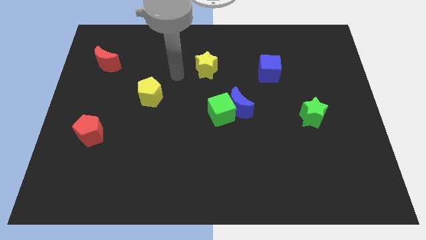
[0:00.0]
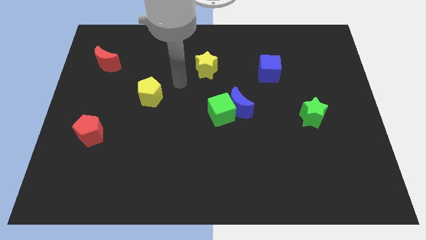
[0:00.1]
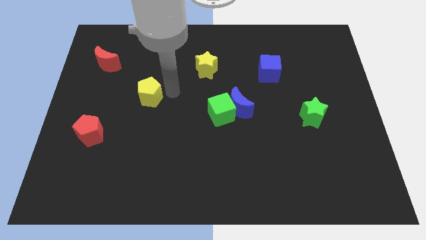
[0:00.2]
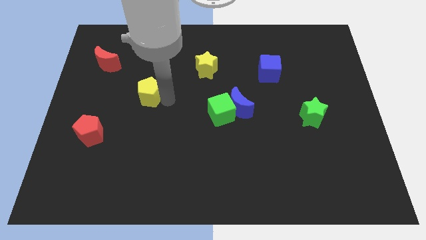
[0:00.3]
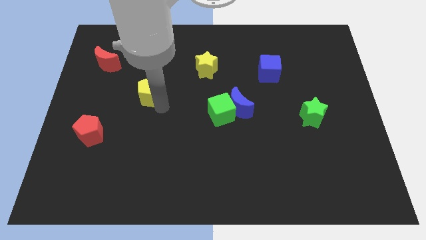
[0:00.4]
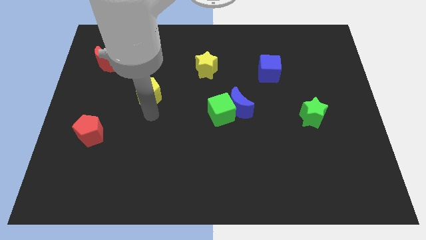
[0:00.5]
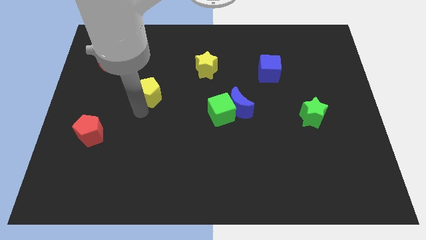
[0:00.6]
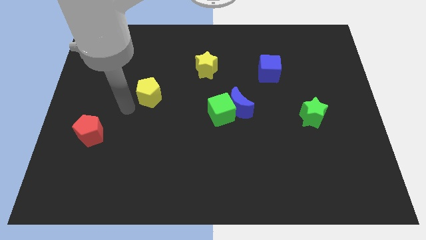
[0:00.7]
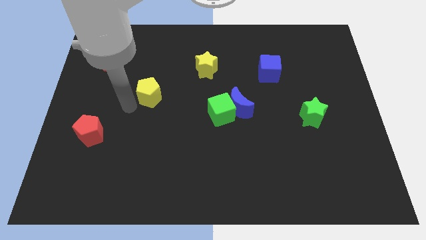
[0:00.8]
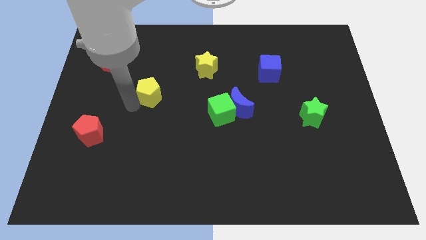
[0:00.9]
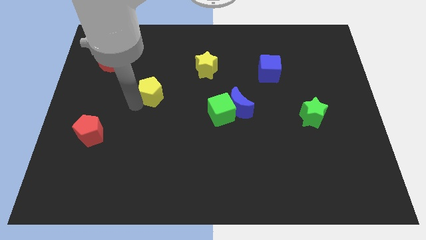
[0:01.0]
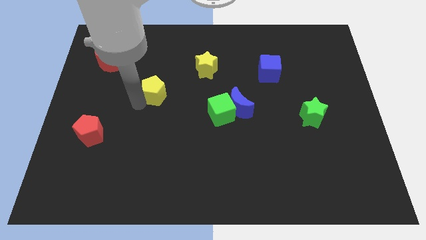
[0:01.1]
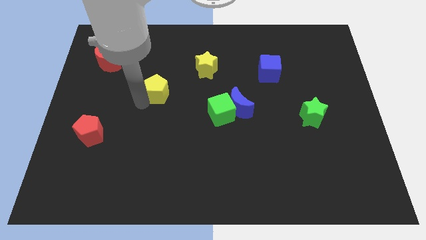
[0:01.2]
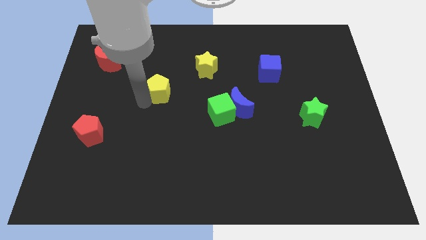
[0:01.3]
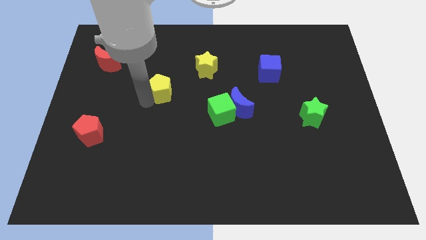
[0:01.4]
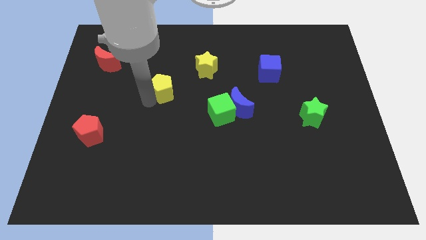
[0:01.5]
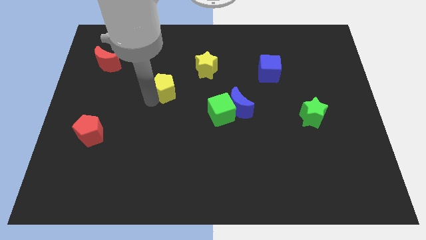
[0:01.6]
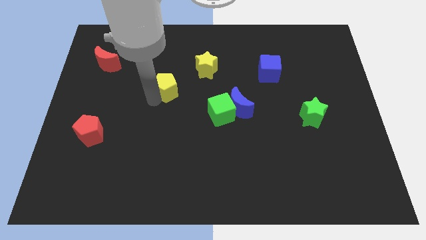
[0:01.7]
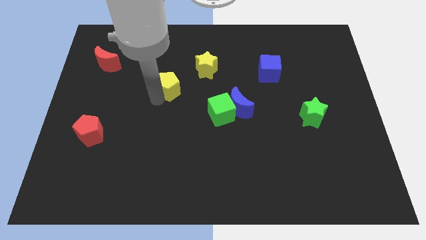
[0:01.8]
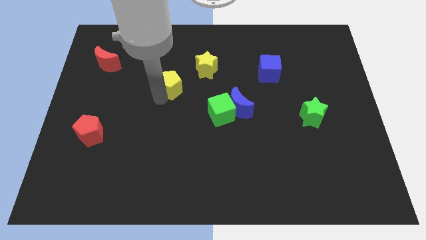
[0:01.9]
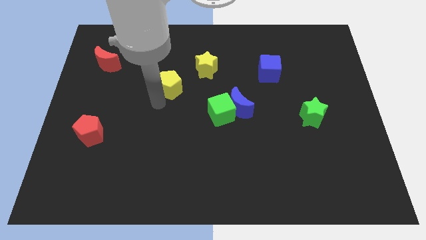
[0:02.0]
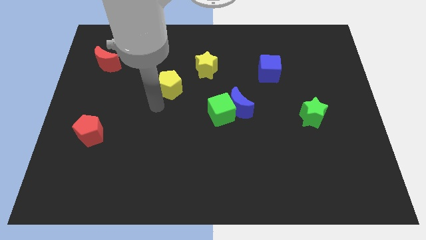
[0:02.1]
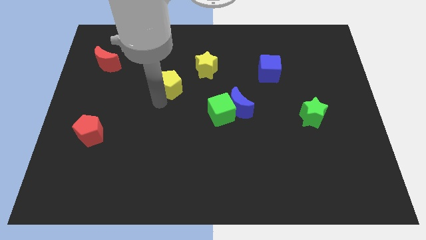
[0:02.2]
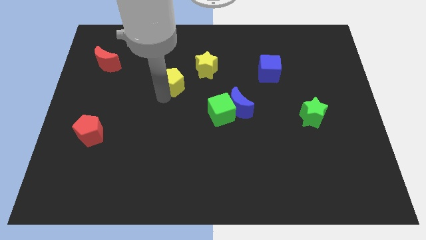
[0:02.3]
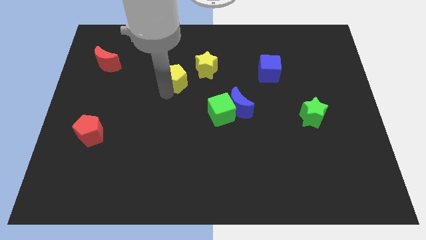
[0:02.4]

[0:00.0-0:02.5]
slide the yellow pentagon up and then right somewhat

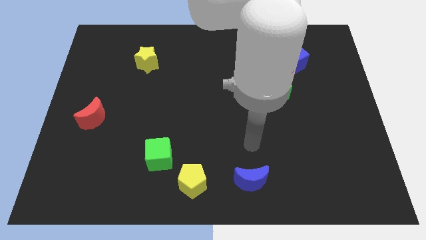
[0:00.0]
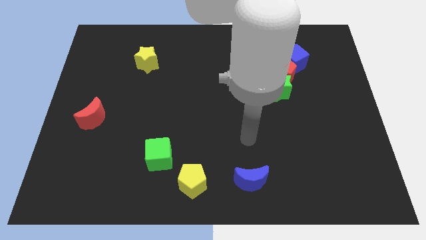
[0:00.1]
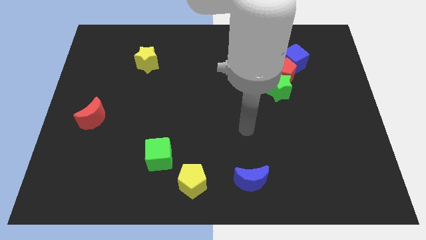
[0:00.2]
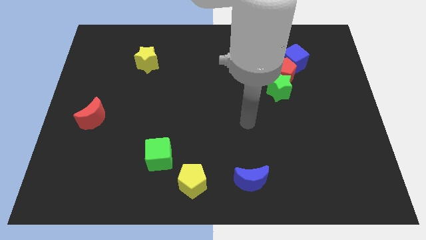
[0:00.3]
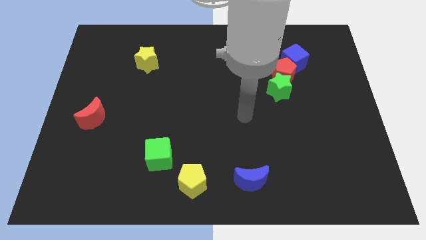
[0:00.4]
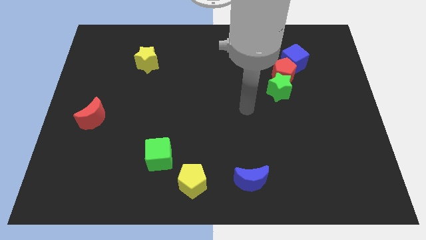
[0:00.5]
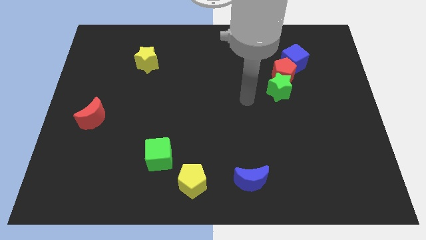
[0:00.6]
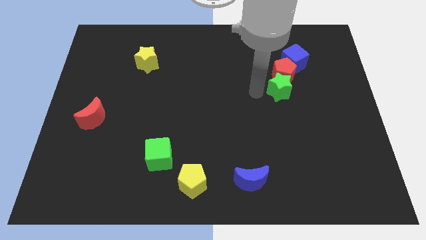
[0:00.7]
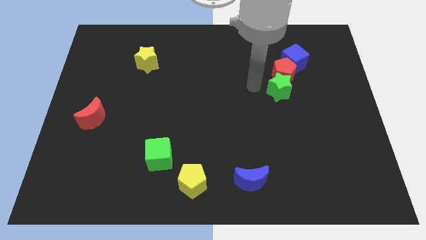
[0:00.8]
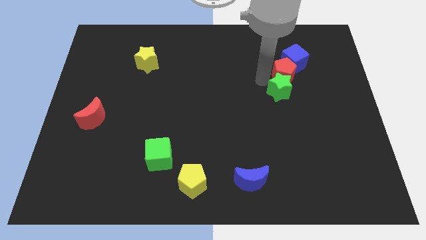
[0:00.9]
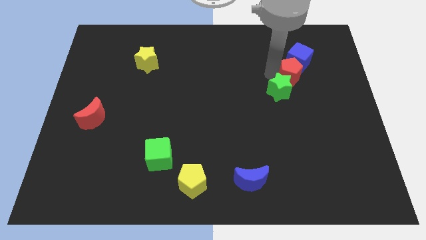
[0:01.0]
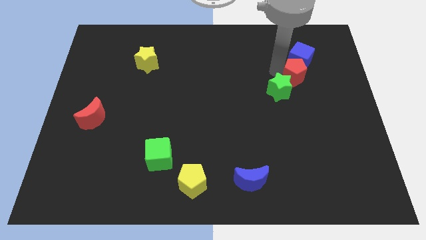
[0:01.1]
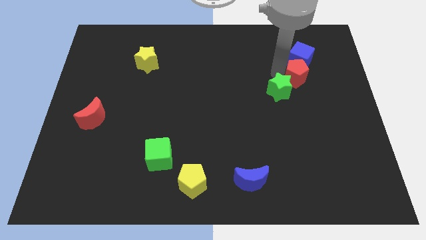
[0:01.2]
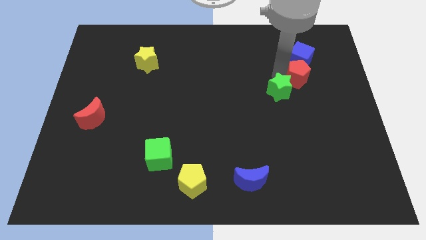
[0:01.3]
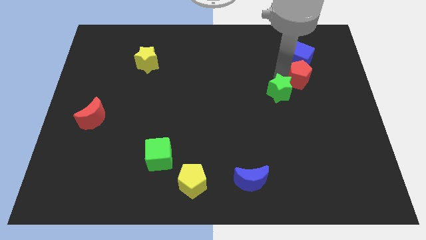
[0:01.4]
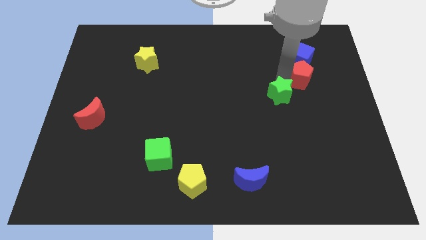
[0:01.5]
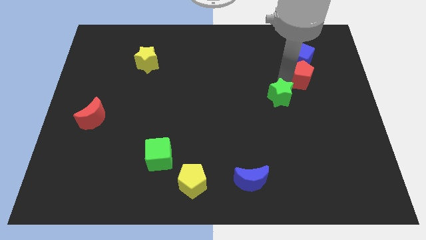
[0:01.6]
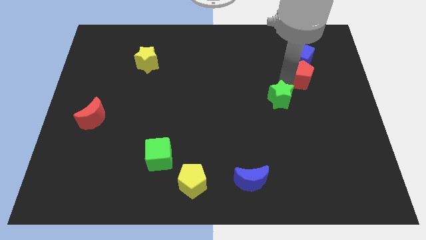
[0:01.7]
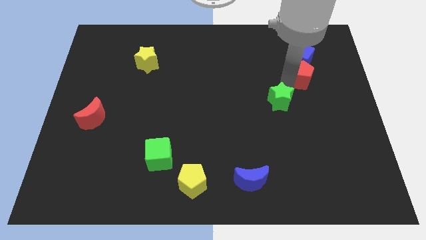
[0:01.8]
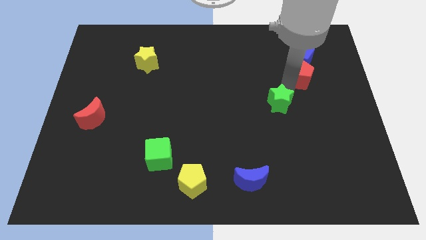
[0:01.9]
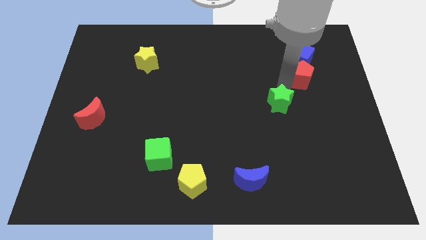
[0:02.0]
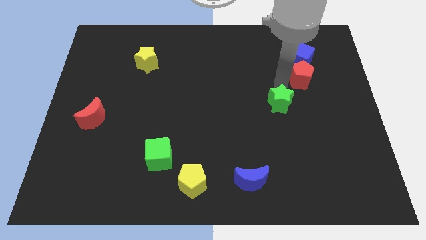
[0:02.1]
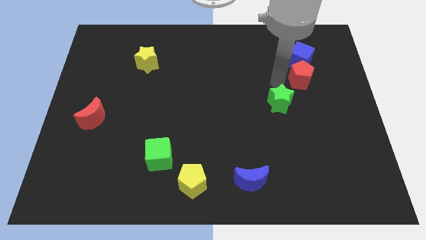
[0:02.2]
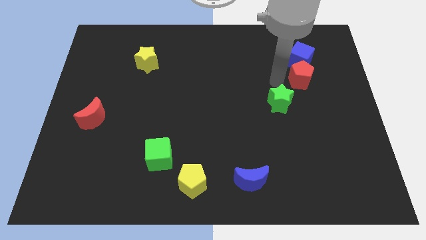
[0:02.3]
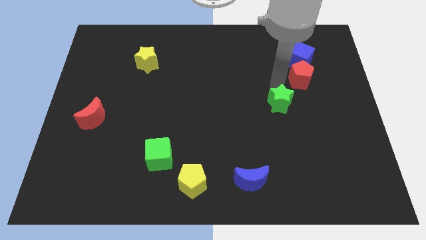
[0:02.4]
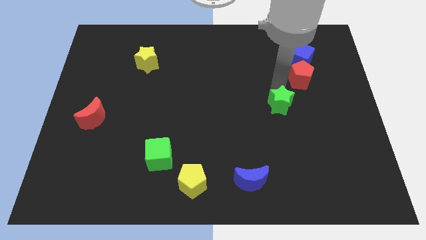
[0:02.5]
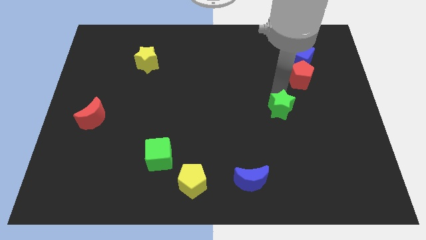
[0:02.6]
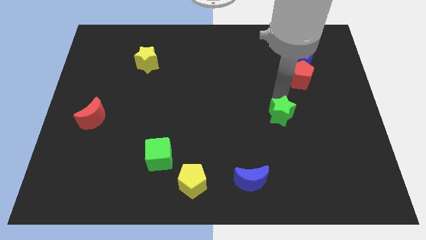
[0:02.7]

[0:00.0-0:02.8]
slide the green star a little bit downwards

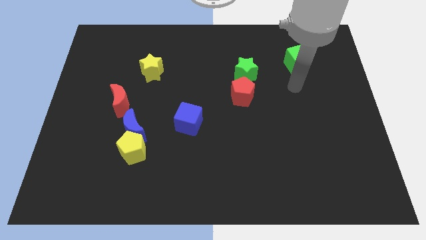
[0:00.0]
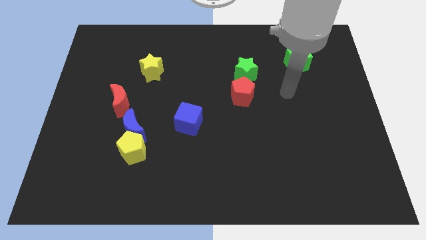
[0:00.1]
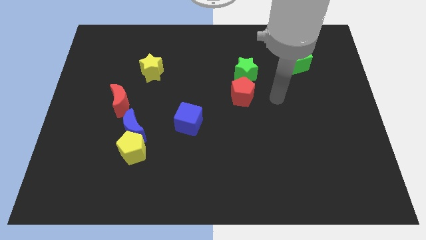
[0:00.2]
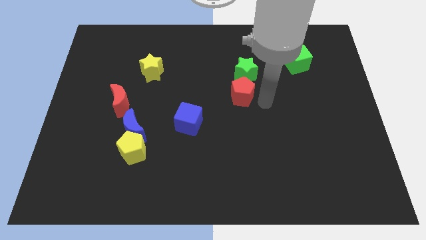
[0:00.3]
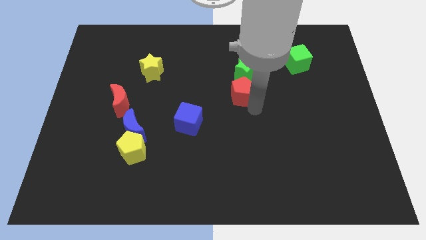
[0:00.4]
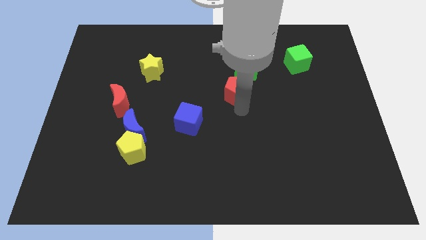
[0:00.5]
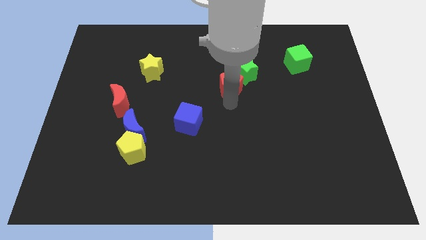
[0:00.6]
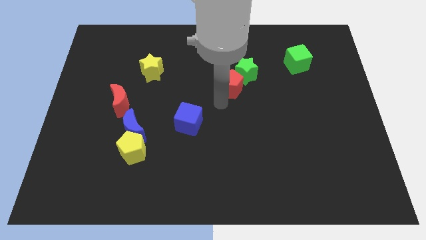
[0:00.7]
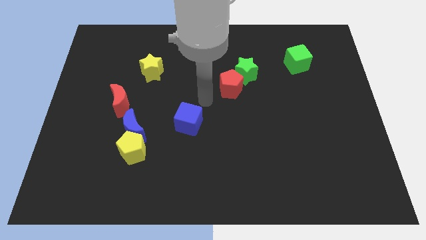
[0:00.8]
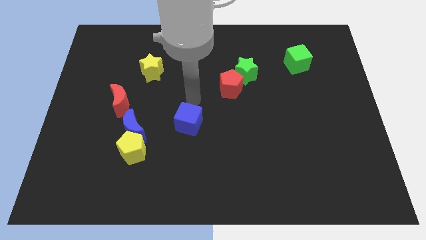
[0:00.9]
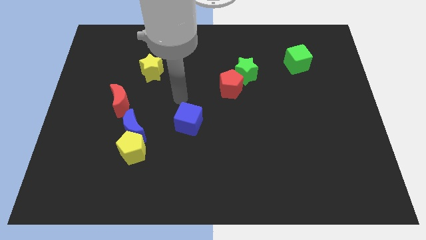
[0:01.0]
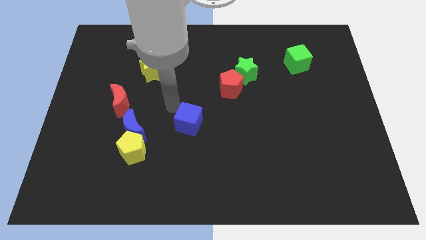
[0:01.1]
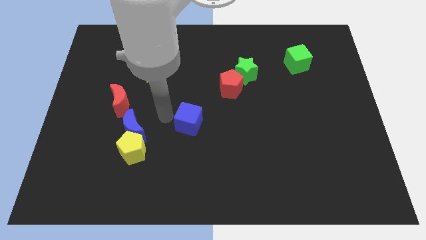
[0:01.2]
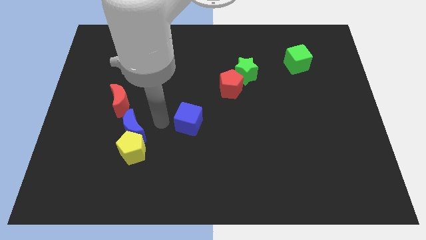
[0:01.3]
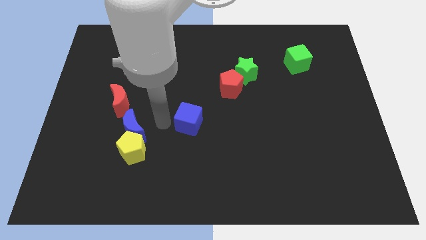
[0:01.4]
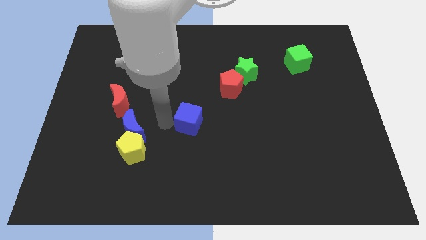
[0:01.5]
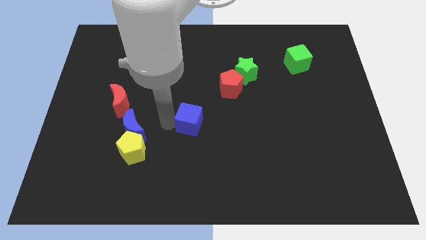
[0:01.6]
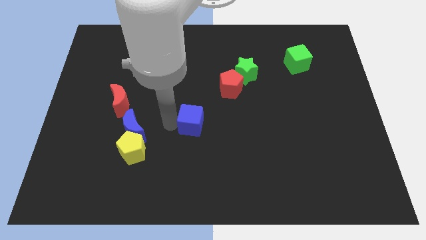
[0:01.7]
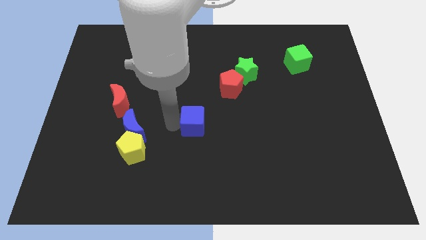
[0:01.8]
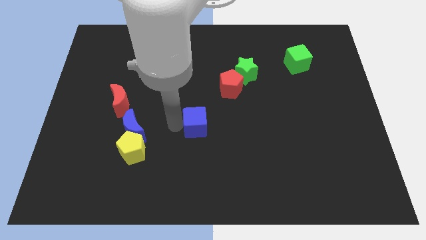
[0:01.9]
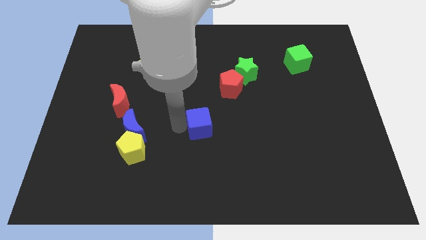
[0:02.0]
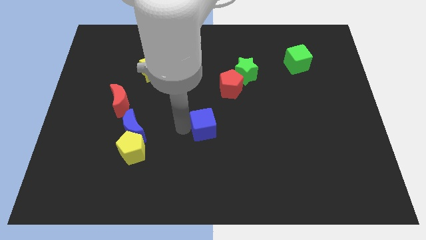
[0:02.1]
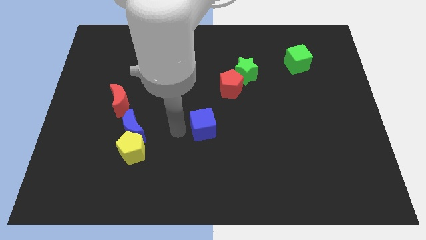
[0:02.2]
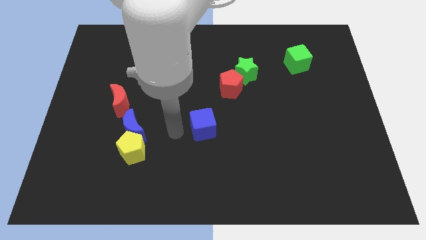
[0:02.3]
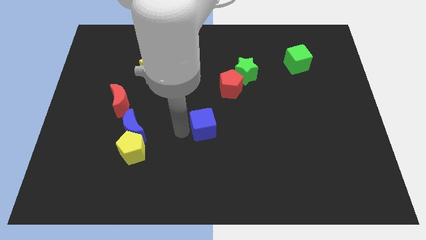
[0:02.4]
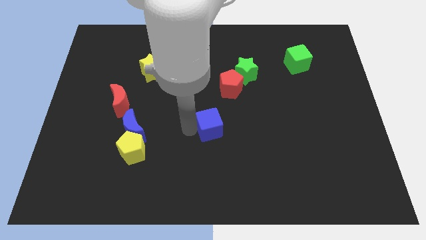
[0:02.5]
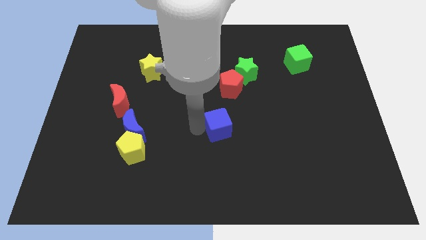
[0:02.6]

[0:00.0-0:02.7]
push the blue cube right slightly
